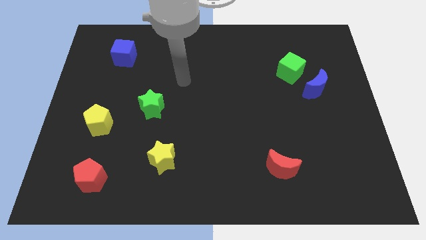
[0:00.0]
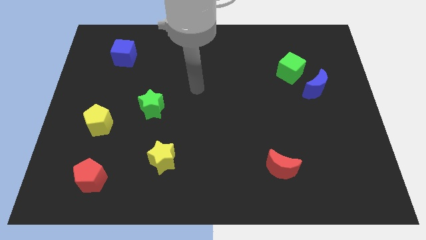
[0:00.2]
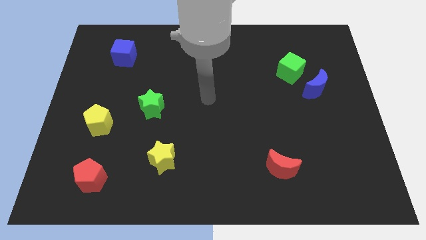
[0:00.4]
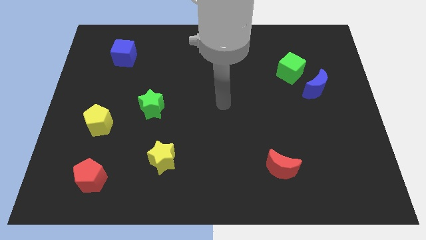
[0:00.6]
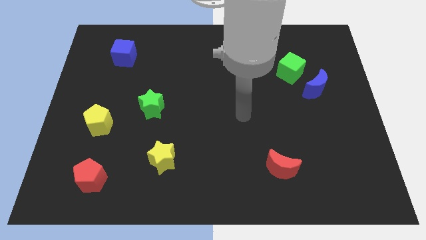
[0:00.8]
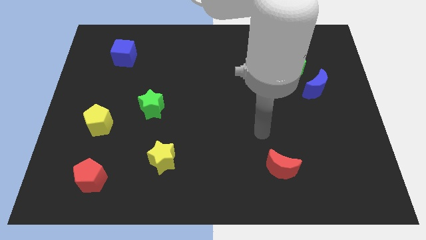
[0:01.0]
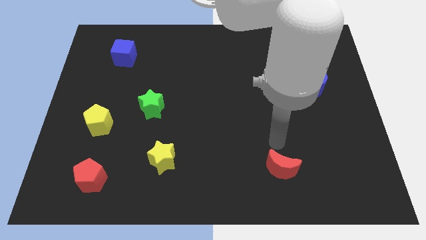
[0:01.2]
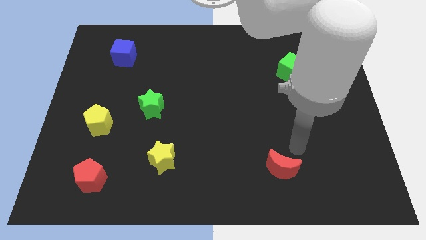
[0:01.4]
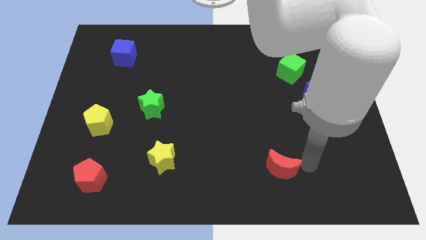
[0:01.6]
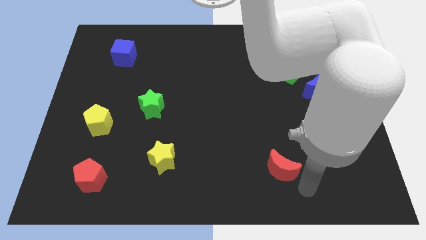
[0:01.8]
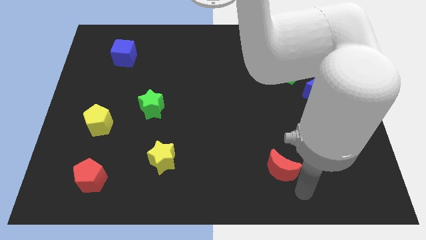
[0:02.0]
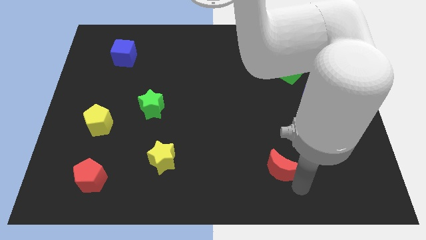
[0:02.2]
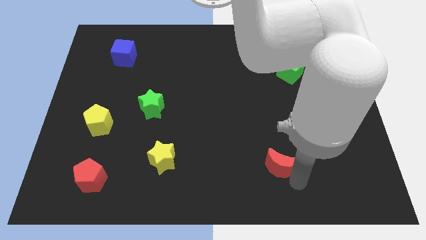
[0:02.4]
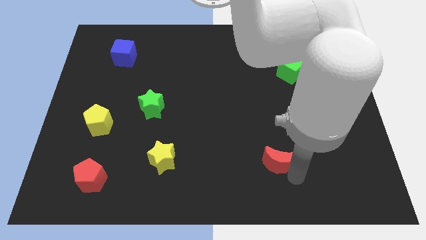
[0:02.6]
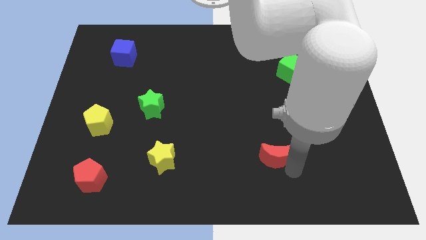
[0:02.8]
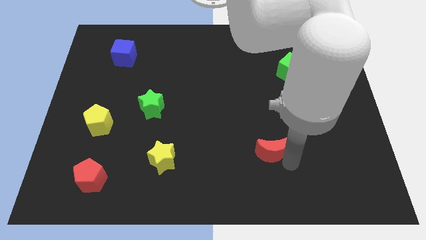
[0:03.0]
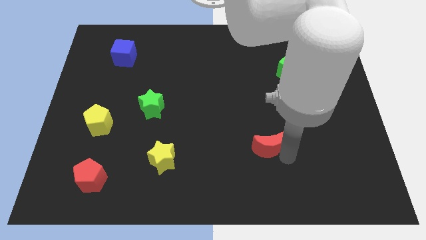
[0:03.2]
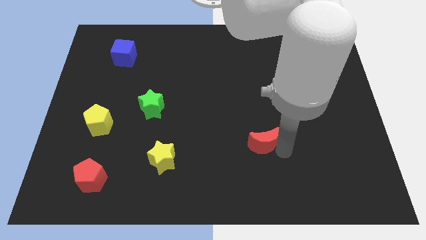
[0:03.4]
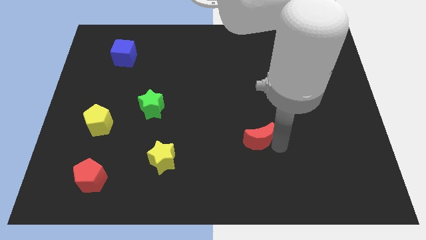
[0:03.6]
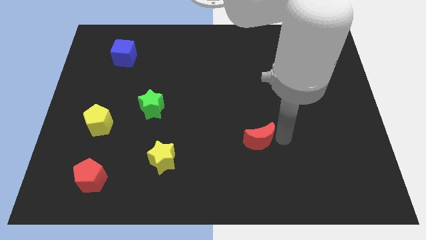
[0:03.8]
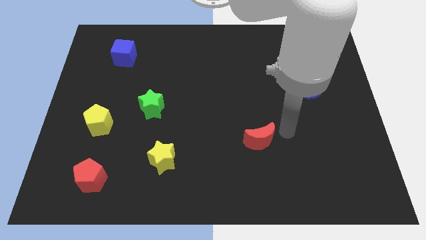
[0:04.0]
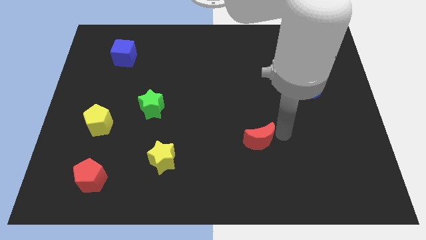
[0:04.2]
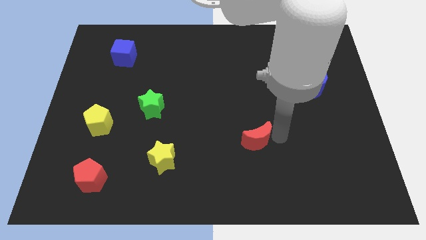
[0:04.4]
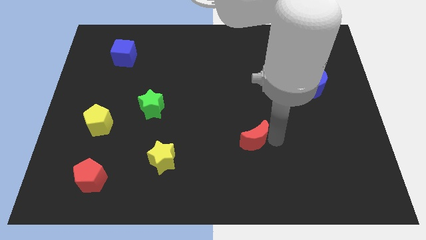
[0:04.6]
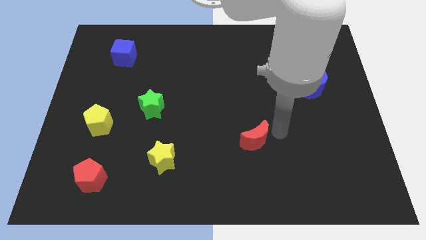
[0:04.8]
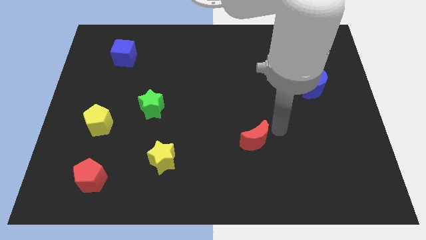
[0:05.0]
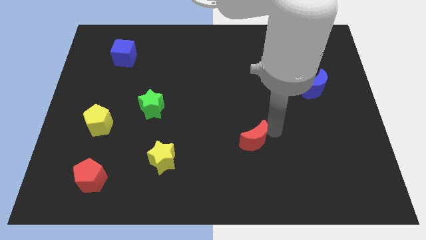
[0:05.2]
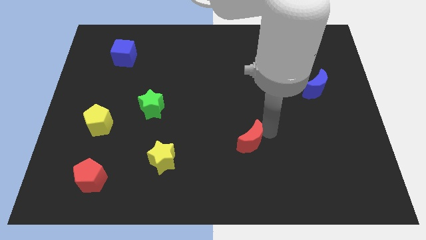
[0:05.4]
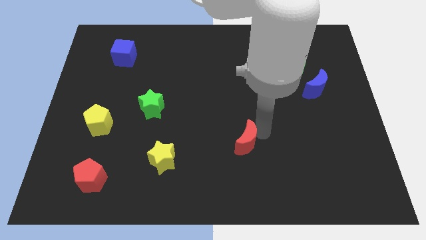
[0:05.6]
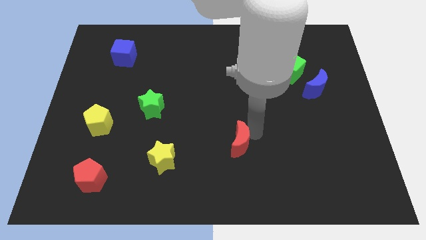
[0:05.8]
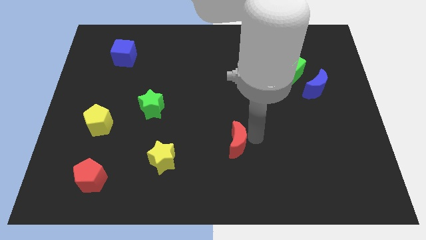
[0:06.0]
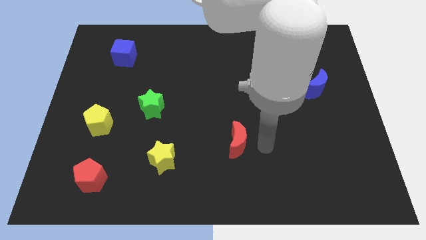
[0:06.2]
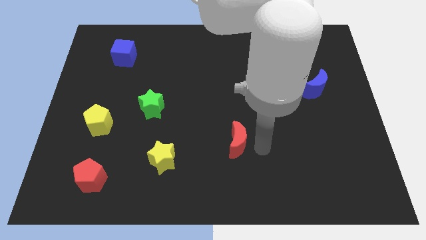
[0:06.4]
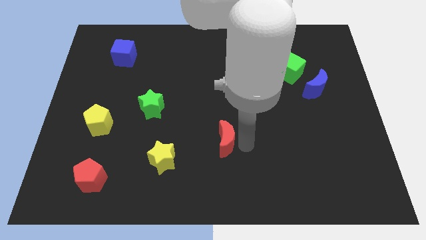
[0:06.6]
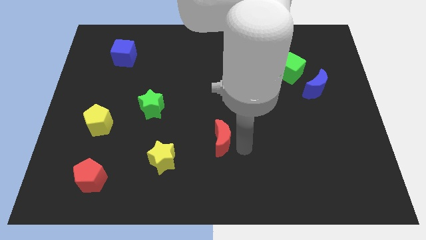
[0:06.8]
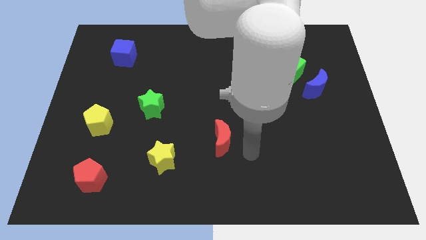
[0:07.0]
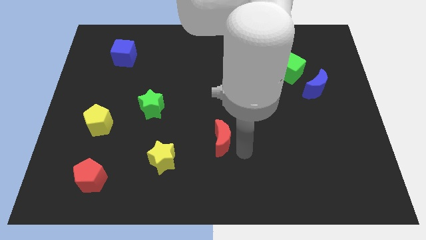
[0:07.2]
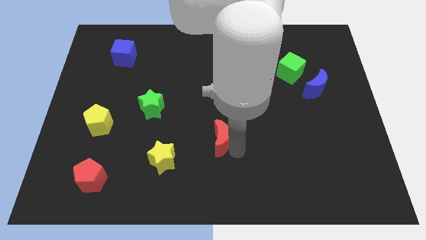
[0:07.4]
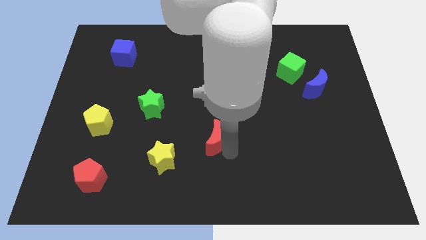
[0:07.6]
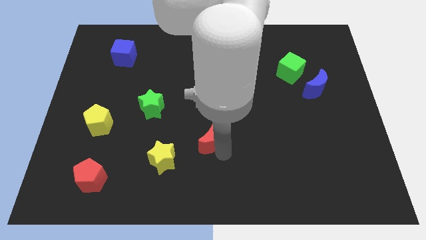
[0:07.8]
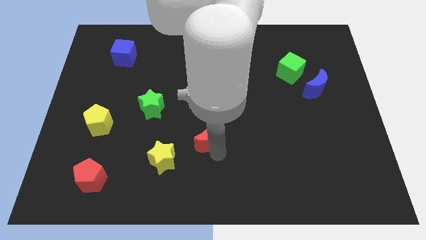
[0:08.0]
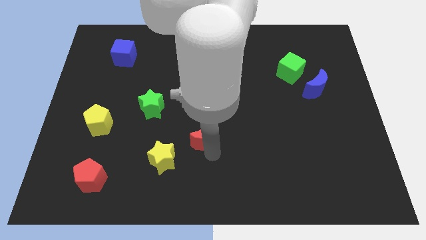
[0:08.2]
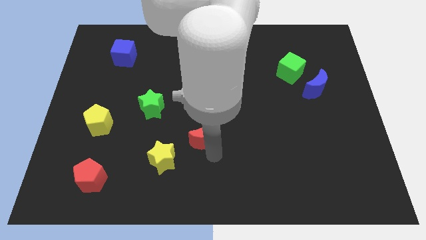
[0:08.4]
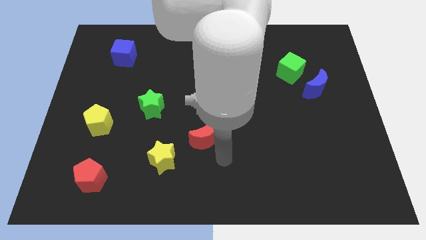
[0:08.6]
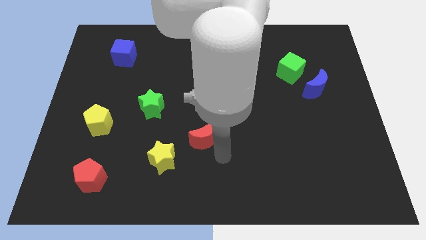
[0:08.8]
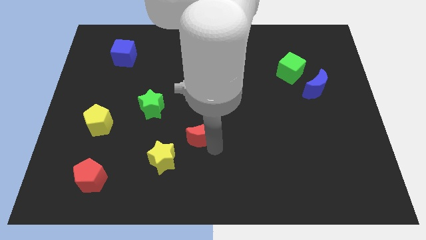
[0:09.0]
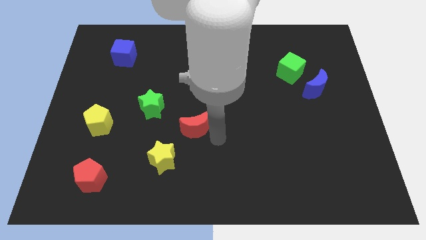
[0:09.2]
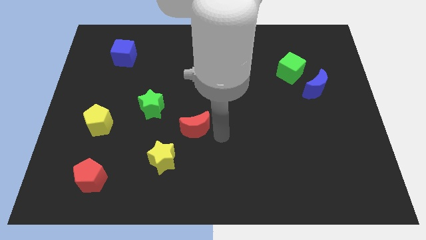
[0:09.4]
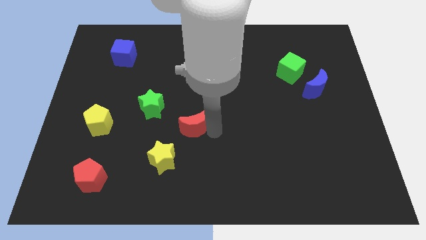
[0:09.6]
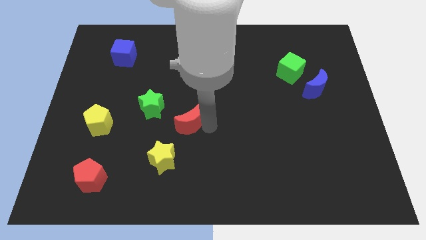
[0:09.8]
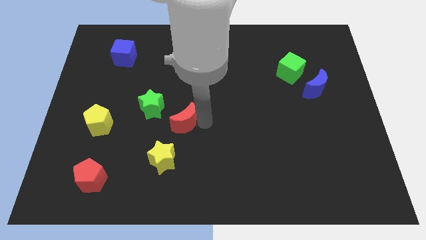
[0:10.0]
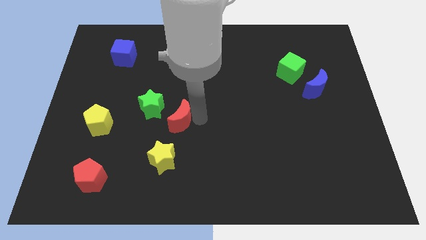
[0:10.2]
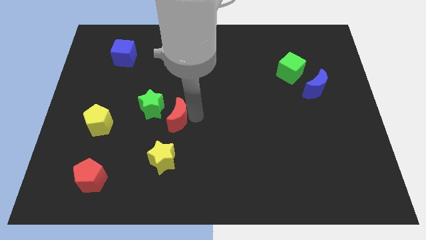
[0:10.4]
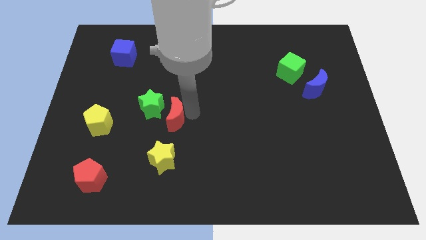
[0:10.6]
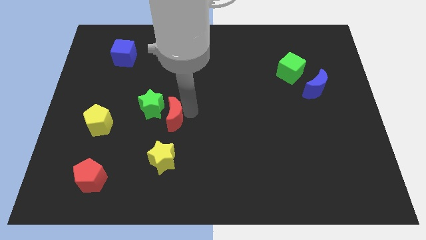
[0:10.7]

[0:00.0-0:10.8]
slide the red moon towards the green star
